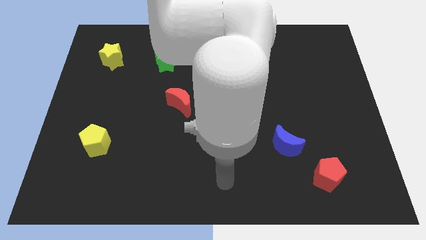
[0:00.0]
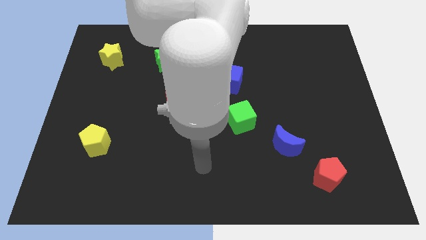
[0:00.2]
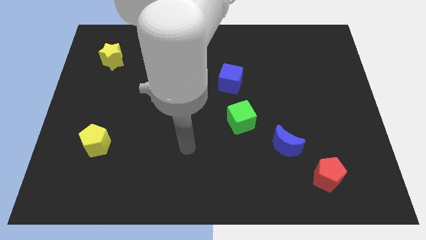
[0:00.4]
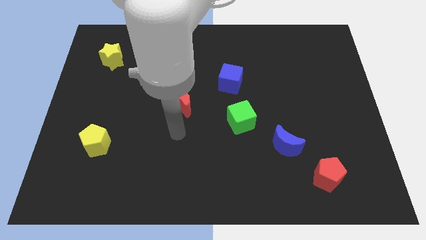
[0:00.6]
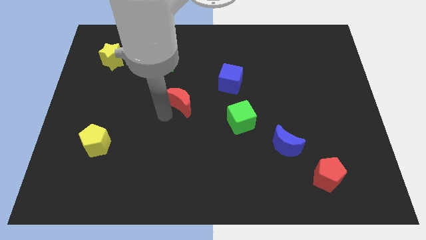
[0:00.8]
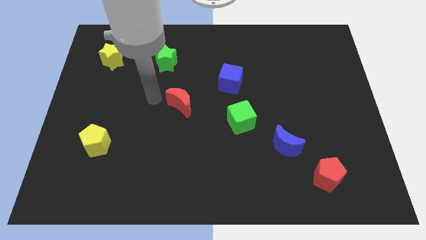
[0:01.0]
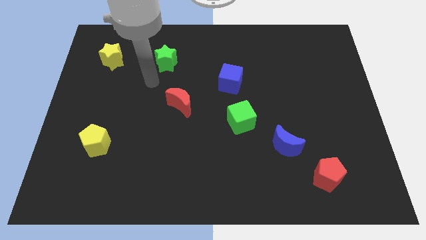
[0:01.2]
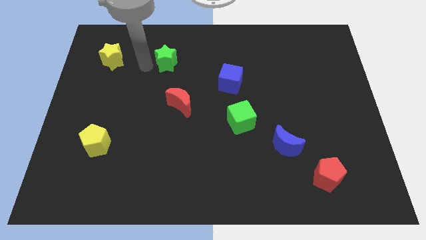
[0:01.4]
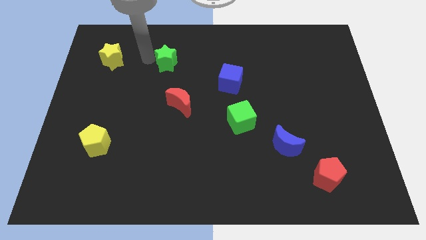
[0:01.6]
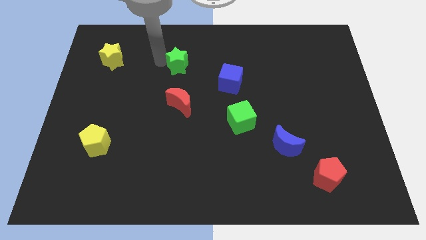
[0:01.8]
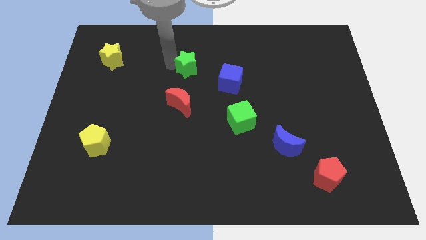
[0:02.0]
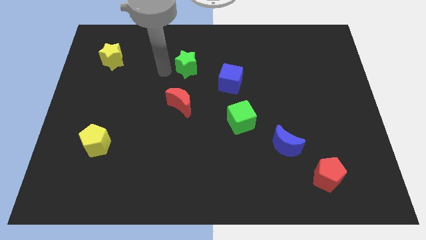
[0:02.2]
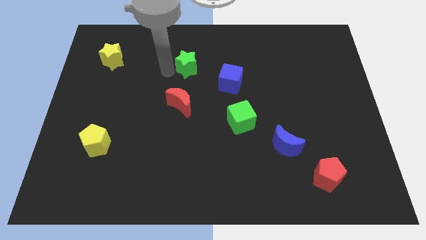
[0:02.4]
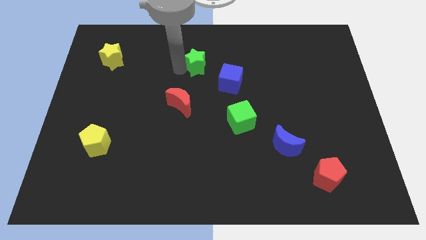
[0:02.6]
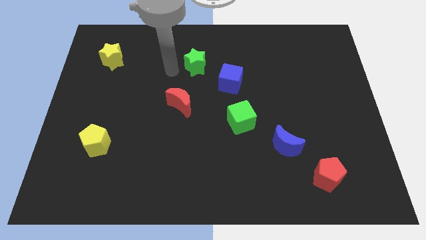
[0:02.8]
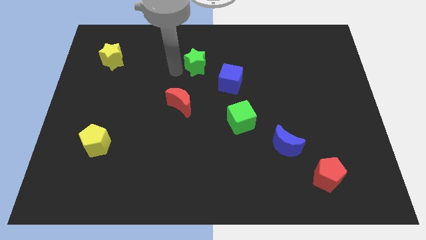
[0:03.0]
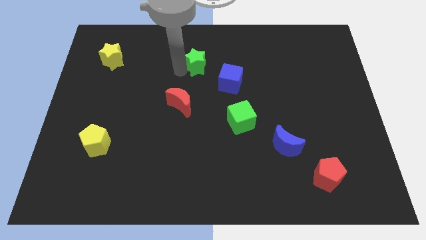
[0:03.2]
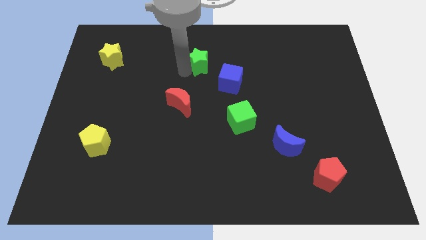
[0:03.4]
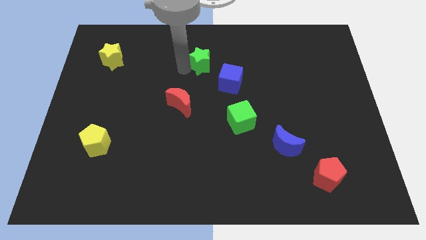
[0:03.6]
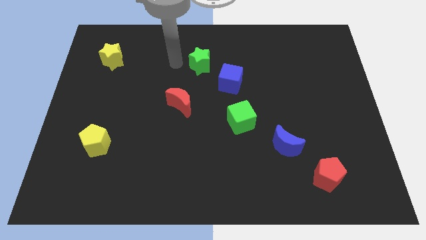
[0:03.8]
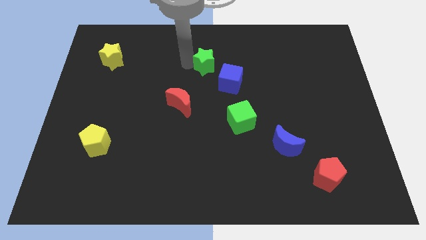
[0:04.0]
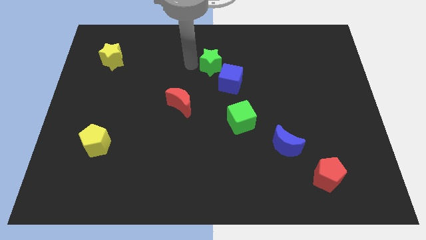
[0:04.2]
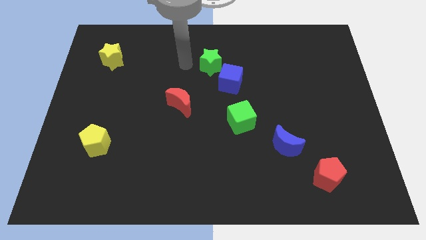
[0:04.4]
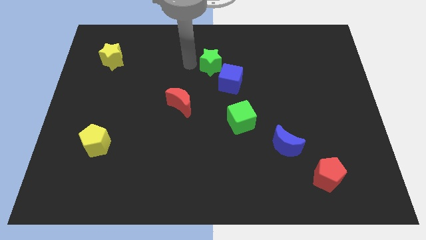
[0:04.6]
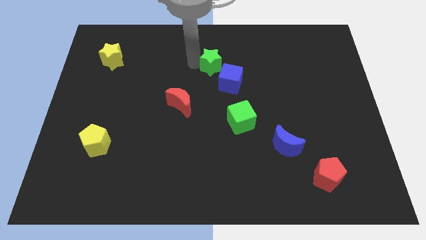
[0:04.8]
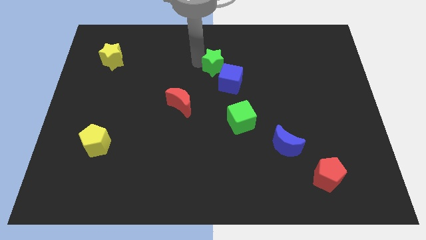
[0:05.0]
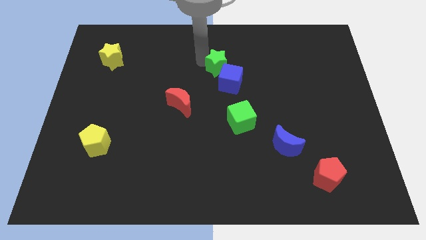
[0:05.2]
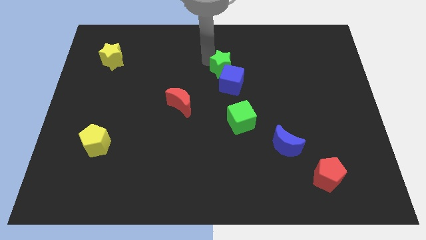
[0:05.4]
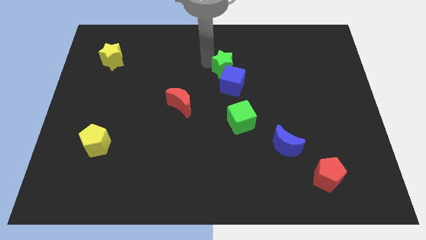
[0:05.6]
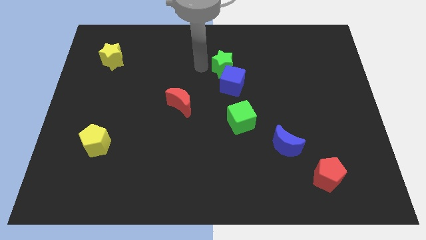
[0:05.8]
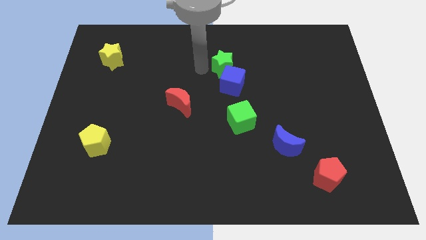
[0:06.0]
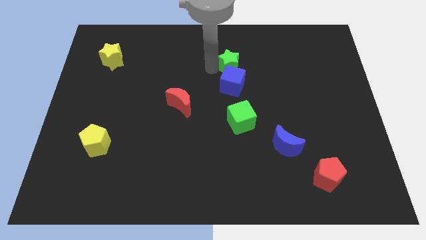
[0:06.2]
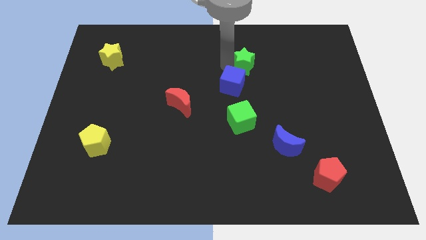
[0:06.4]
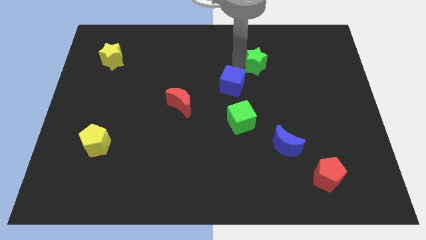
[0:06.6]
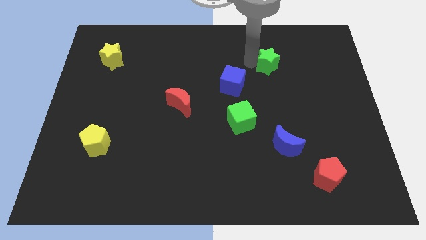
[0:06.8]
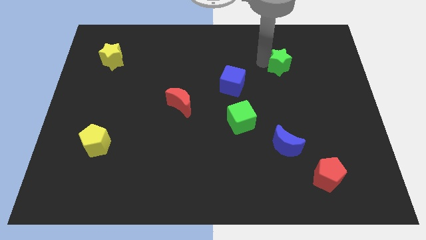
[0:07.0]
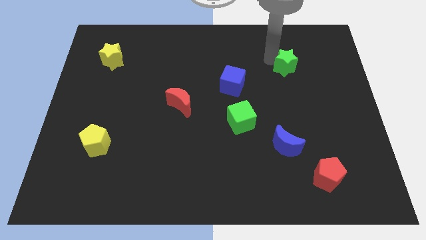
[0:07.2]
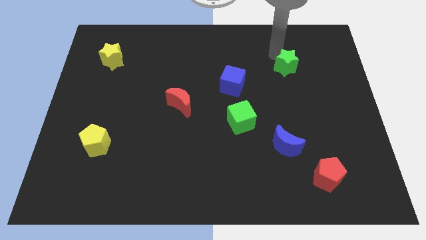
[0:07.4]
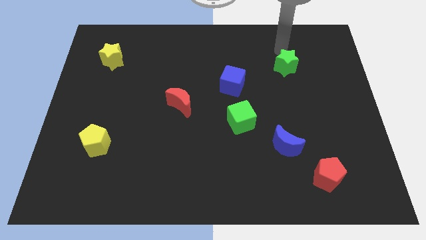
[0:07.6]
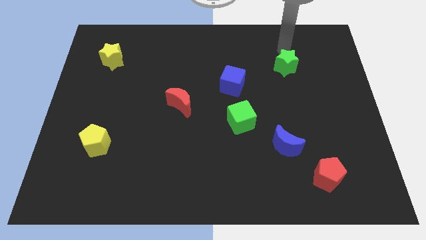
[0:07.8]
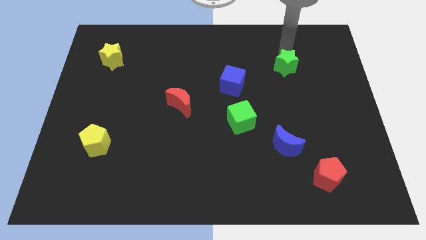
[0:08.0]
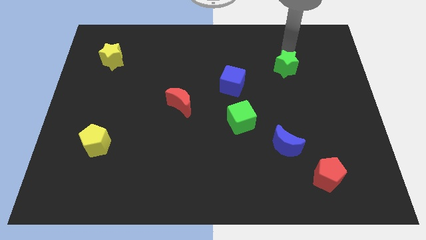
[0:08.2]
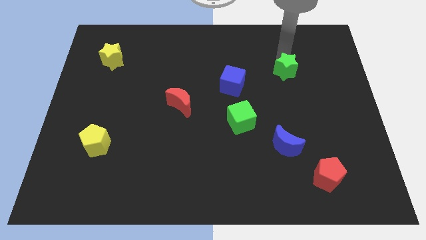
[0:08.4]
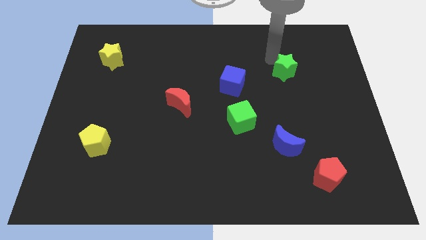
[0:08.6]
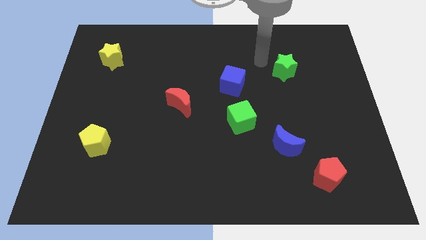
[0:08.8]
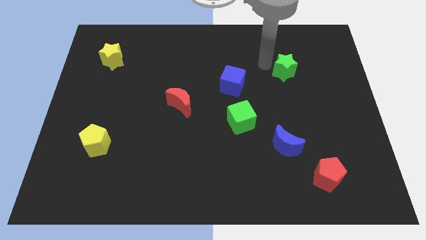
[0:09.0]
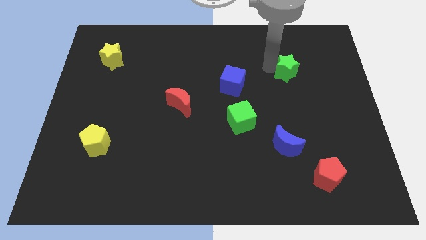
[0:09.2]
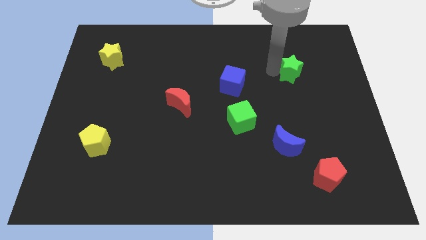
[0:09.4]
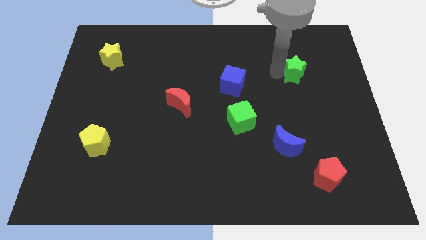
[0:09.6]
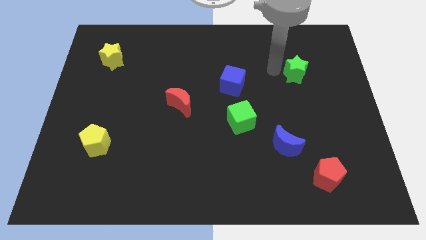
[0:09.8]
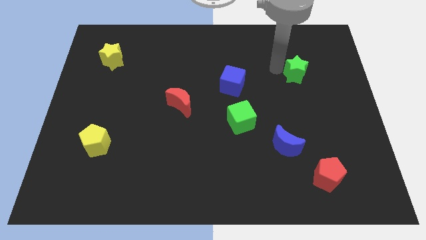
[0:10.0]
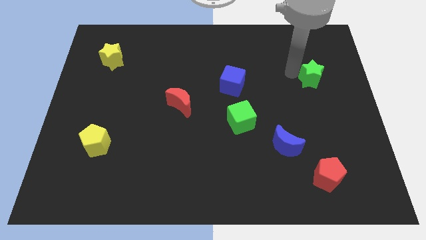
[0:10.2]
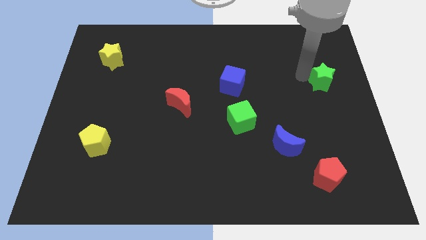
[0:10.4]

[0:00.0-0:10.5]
push the green star to the center right

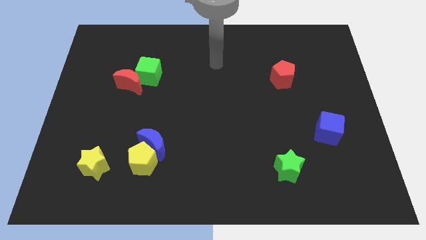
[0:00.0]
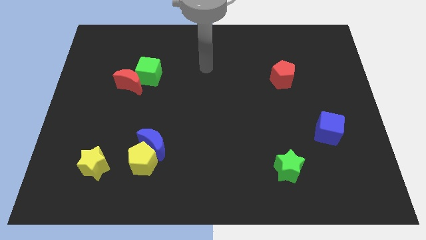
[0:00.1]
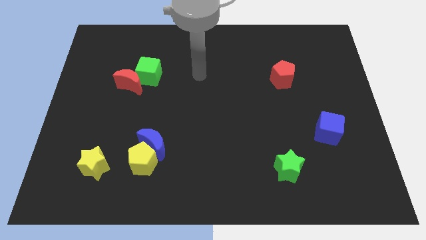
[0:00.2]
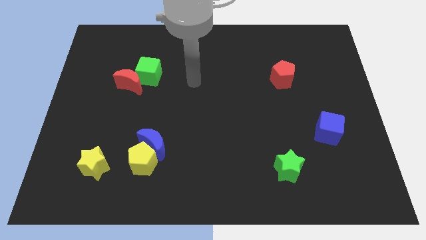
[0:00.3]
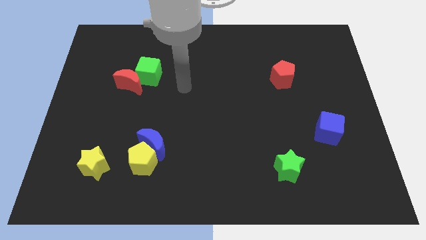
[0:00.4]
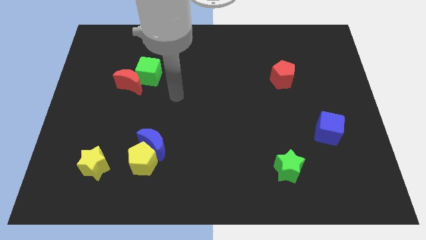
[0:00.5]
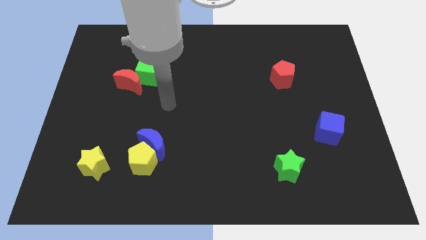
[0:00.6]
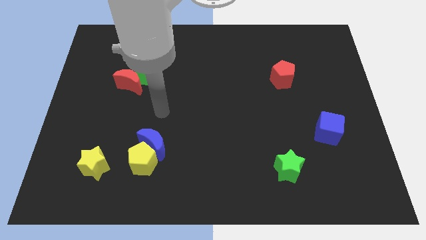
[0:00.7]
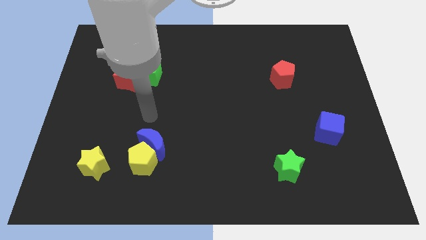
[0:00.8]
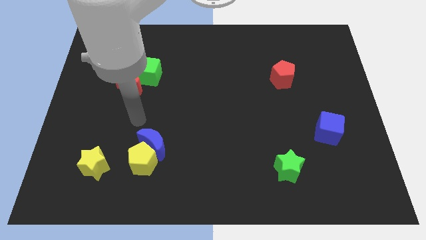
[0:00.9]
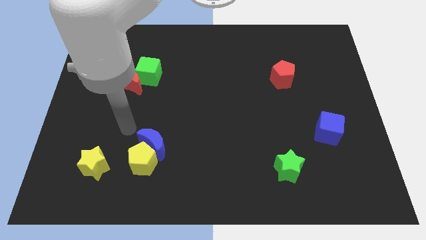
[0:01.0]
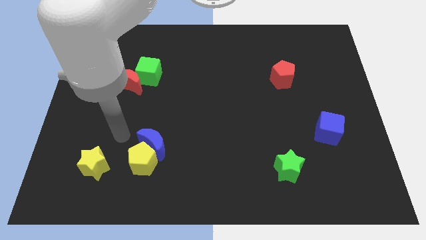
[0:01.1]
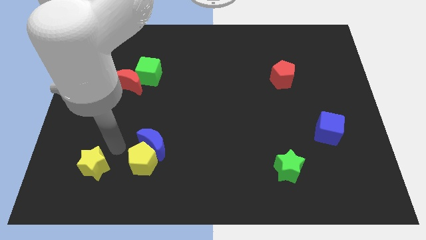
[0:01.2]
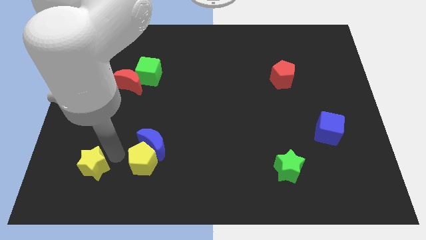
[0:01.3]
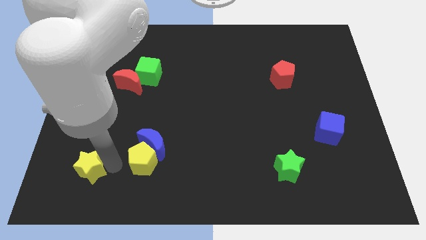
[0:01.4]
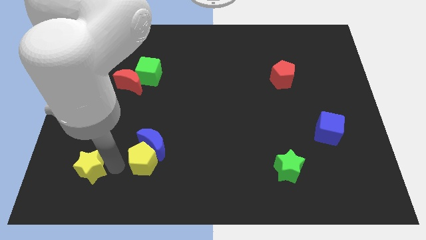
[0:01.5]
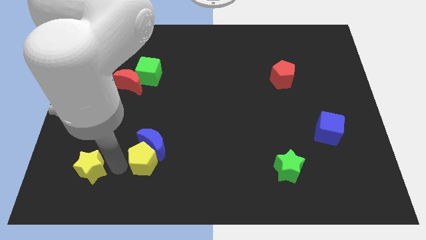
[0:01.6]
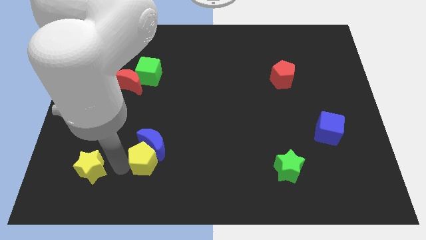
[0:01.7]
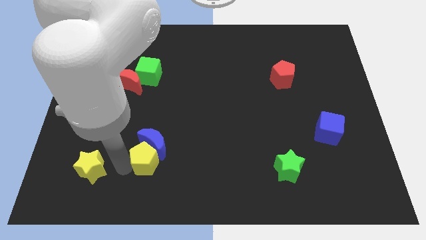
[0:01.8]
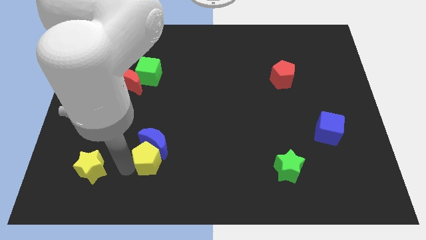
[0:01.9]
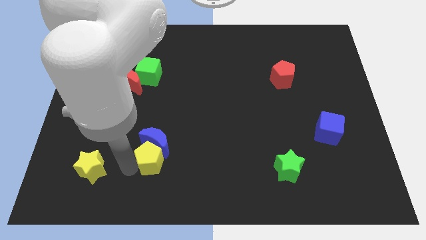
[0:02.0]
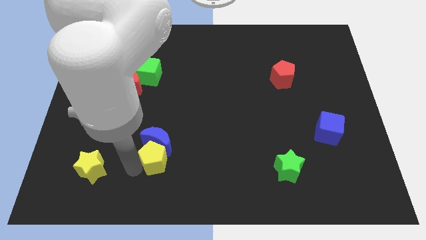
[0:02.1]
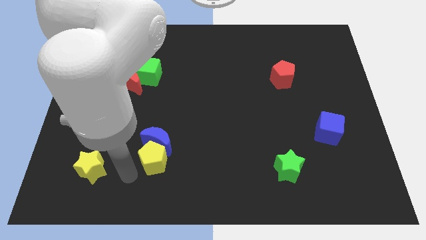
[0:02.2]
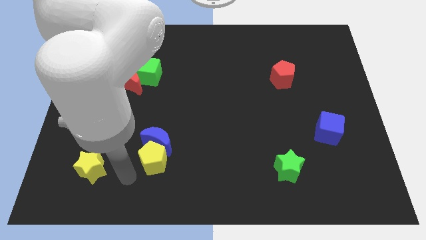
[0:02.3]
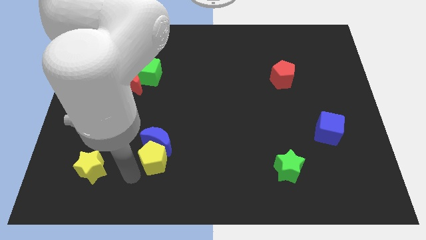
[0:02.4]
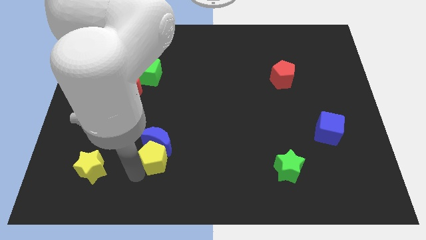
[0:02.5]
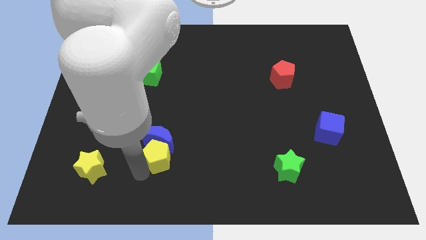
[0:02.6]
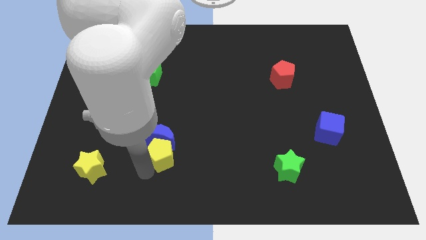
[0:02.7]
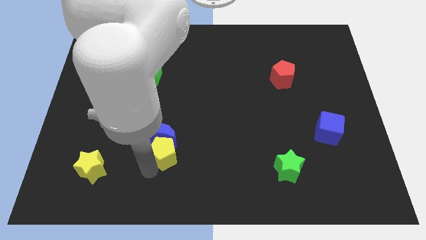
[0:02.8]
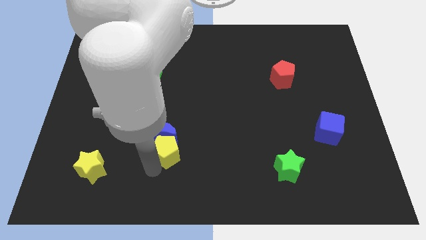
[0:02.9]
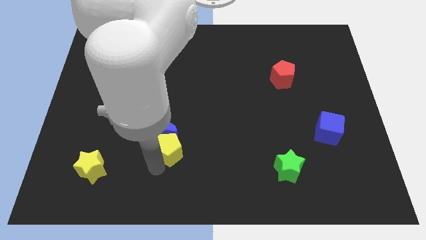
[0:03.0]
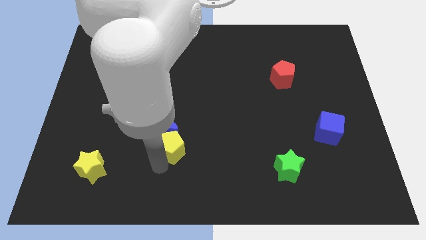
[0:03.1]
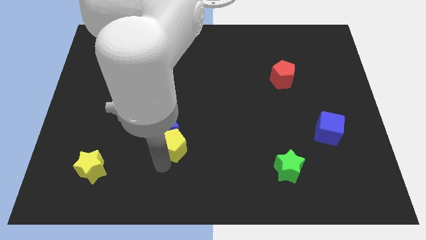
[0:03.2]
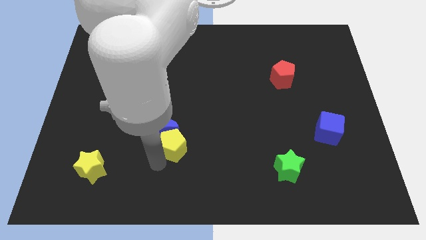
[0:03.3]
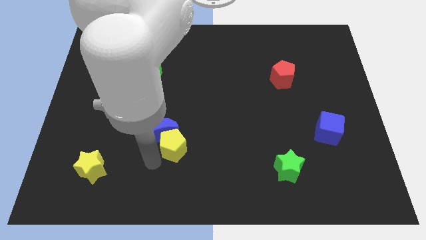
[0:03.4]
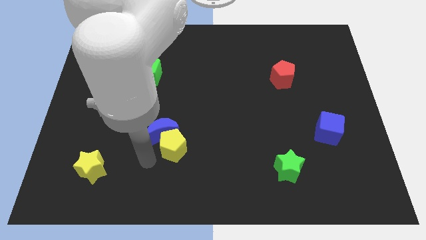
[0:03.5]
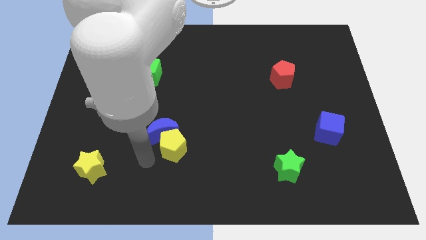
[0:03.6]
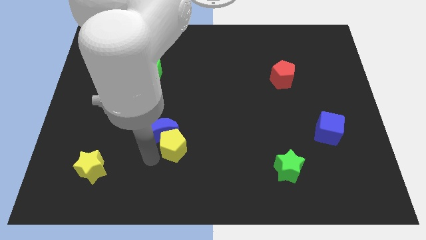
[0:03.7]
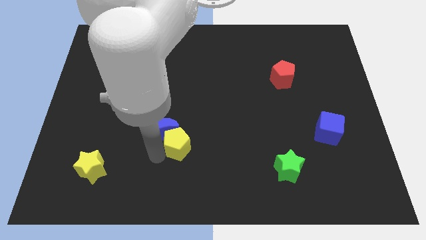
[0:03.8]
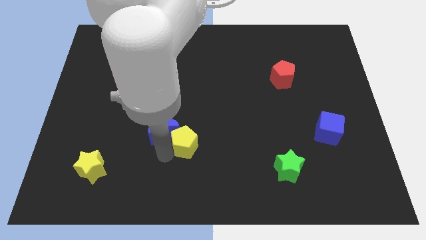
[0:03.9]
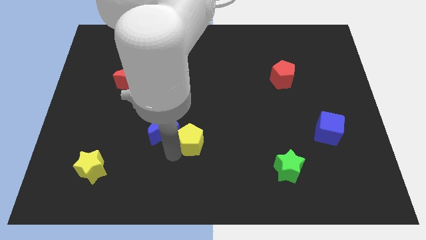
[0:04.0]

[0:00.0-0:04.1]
move the yellow pentagon to the middle
